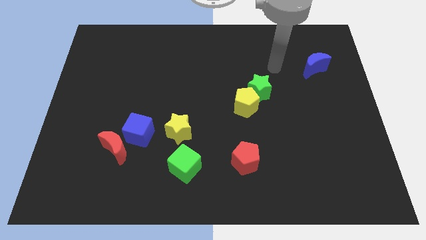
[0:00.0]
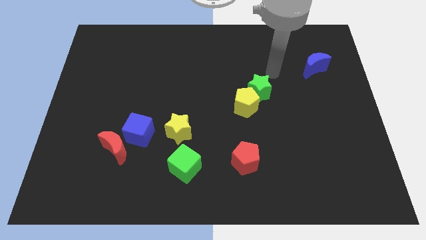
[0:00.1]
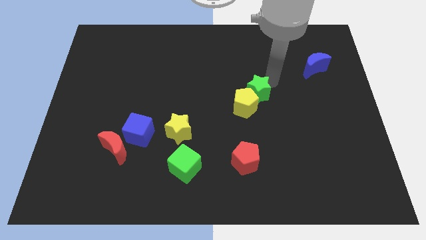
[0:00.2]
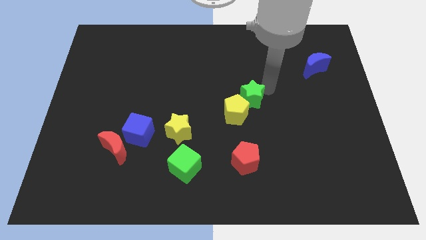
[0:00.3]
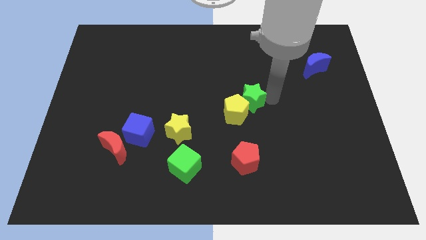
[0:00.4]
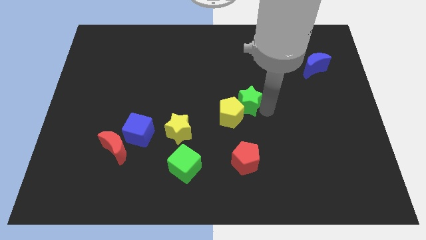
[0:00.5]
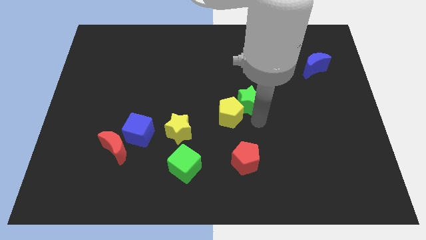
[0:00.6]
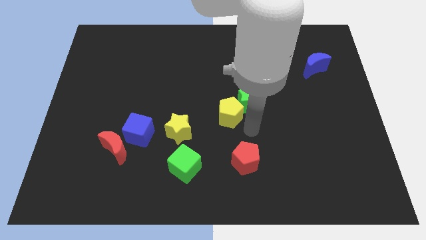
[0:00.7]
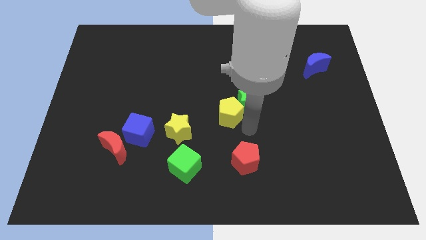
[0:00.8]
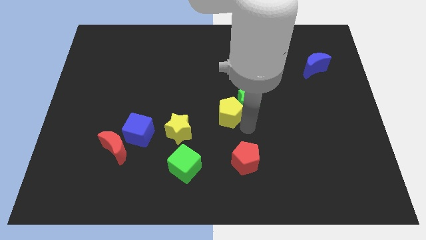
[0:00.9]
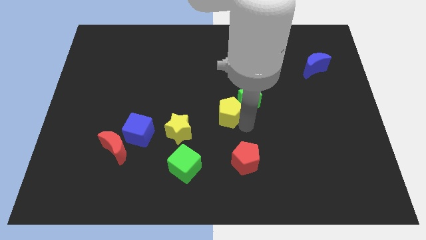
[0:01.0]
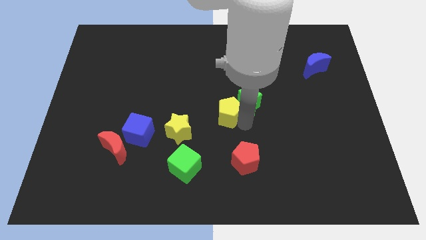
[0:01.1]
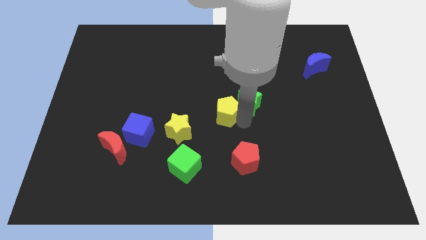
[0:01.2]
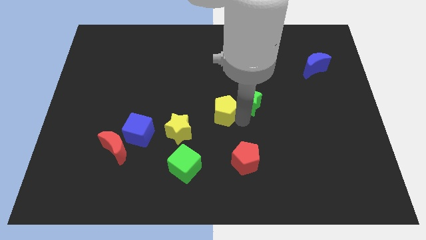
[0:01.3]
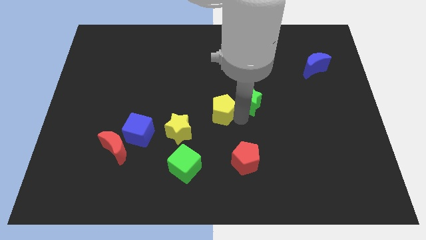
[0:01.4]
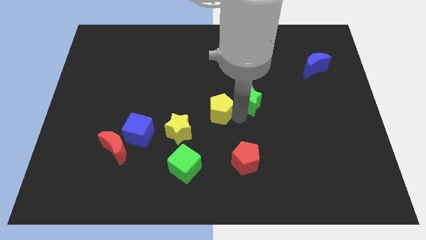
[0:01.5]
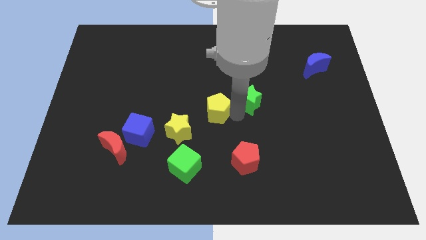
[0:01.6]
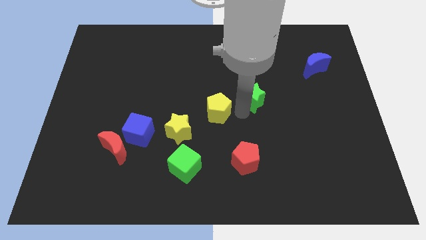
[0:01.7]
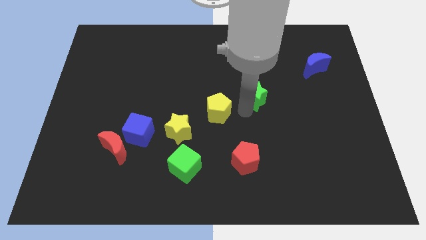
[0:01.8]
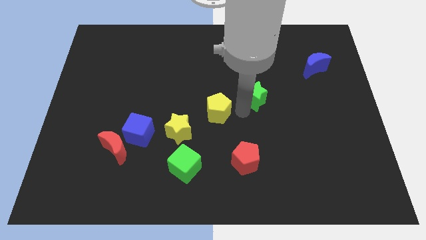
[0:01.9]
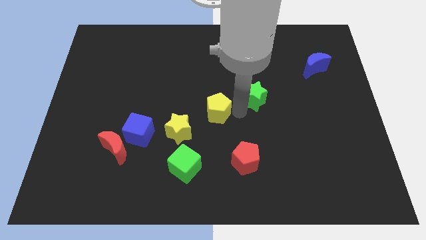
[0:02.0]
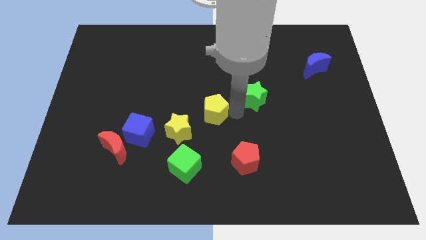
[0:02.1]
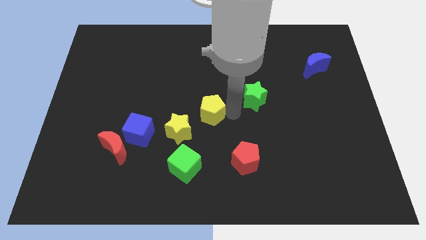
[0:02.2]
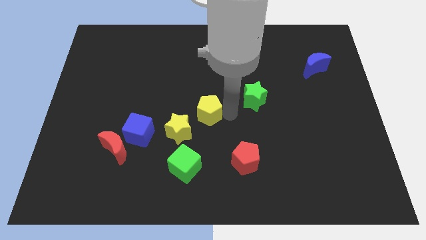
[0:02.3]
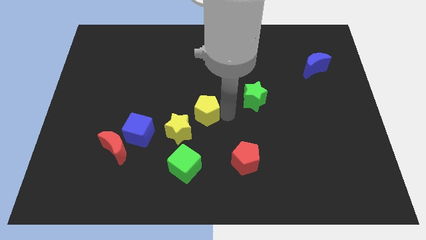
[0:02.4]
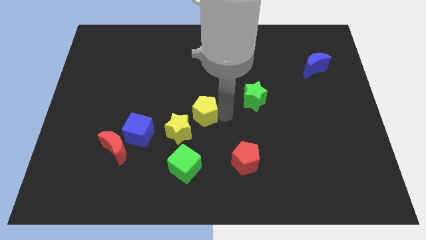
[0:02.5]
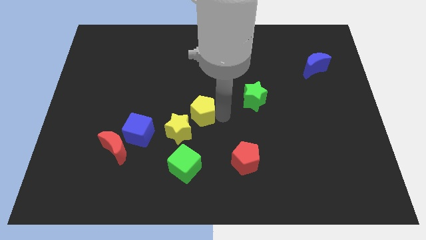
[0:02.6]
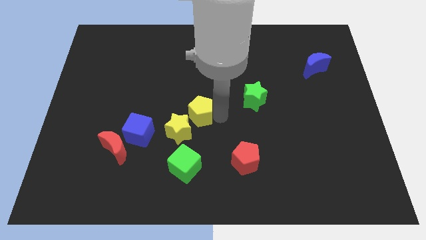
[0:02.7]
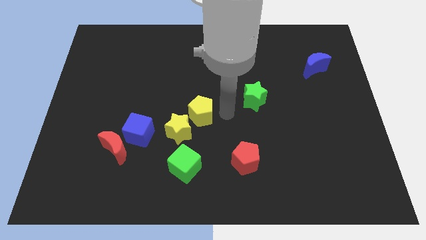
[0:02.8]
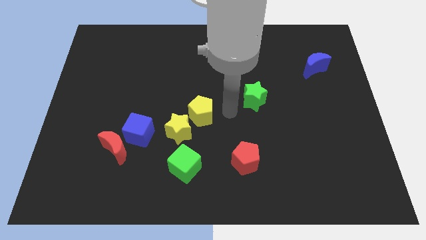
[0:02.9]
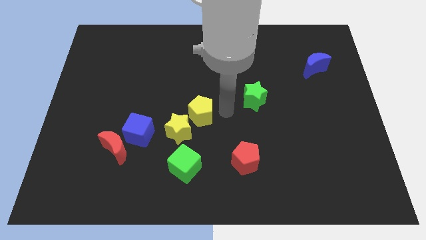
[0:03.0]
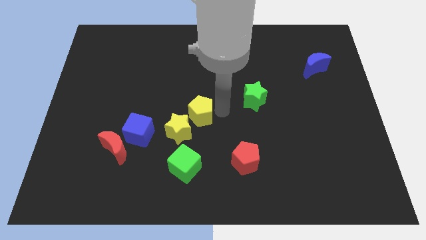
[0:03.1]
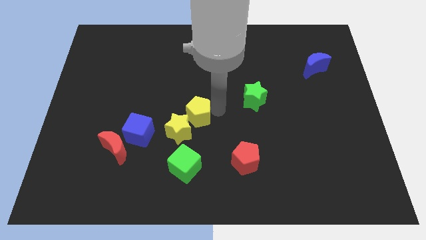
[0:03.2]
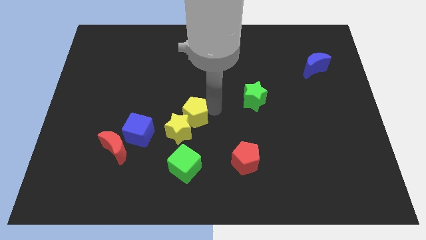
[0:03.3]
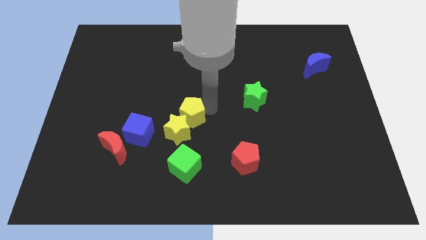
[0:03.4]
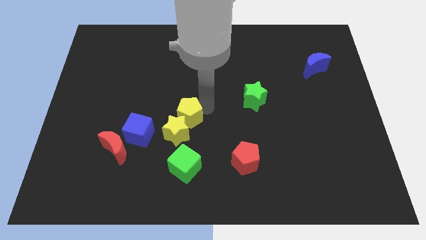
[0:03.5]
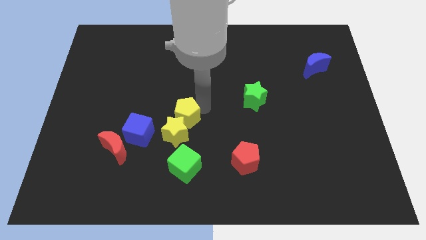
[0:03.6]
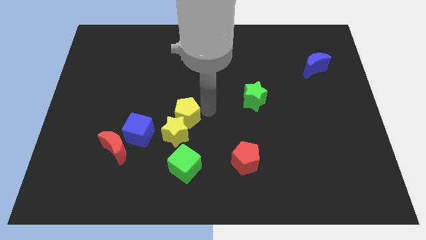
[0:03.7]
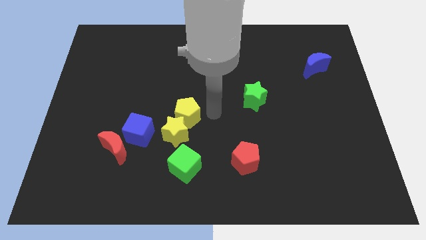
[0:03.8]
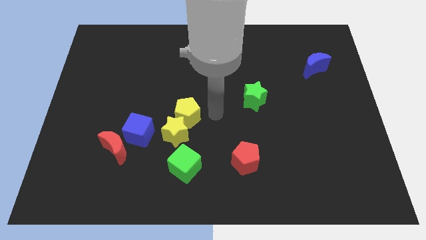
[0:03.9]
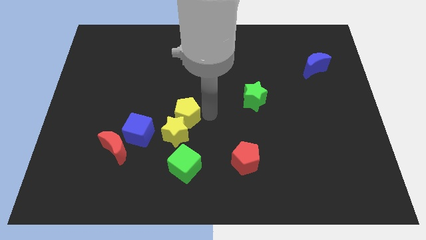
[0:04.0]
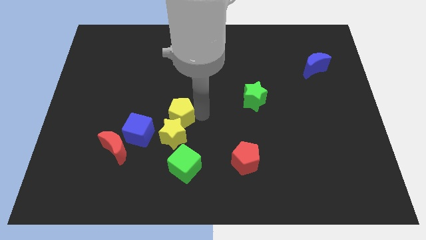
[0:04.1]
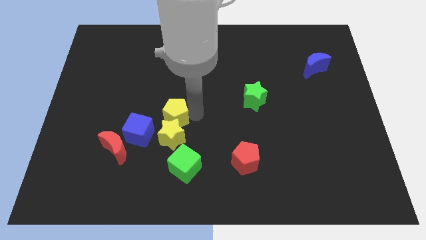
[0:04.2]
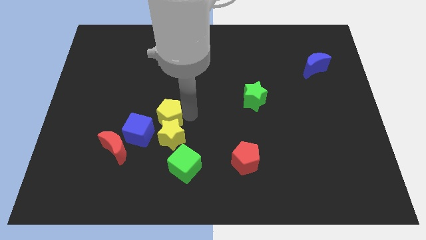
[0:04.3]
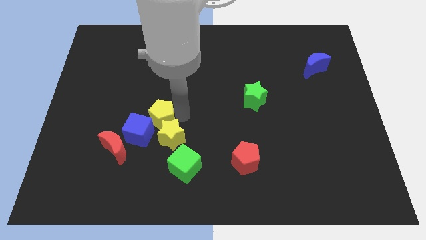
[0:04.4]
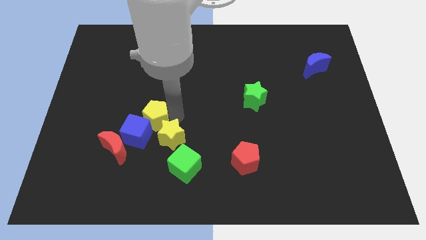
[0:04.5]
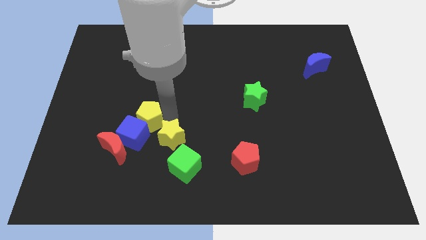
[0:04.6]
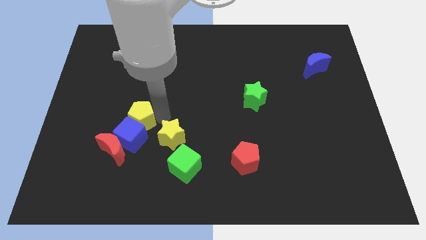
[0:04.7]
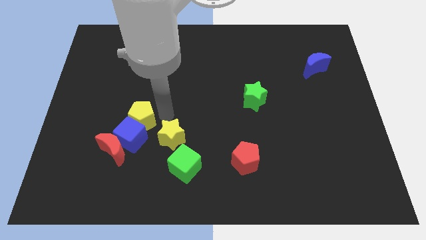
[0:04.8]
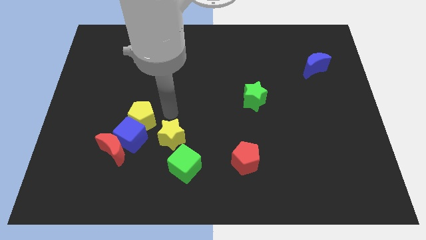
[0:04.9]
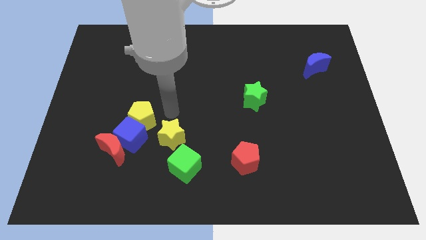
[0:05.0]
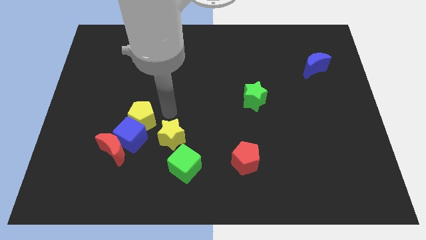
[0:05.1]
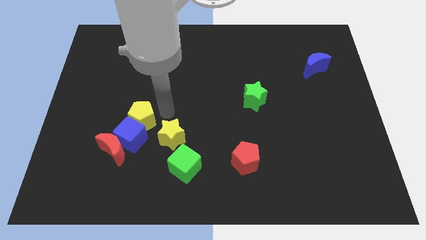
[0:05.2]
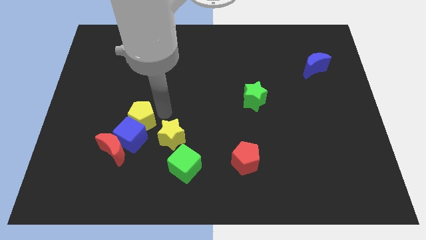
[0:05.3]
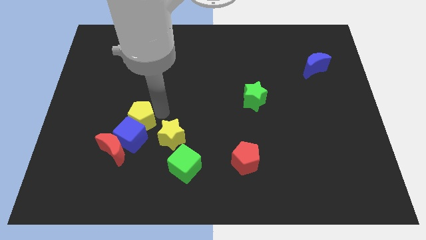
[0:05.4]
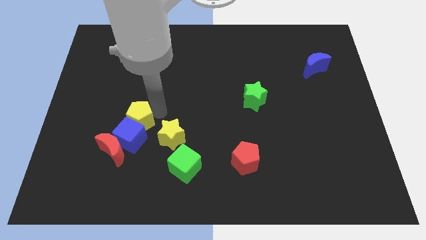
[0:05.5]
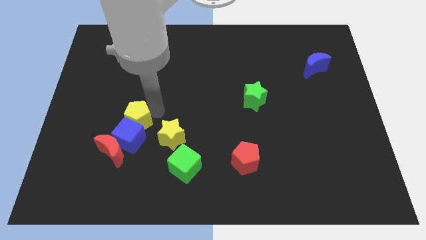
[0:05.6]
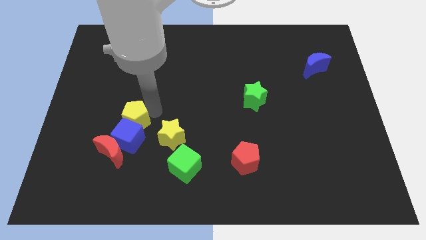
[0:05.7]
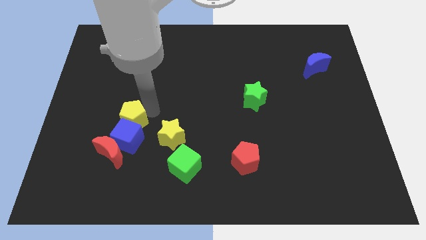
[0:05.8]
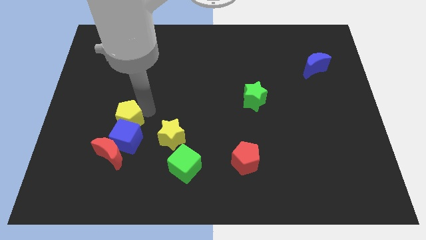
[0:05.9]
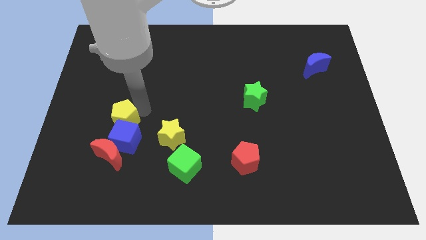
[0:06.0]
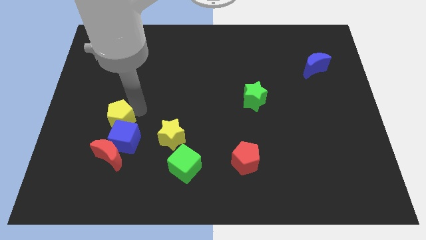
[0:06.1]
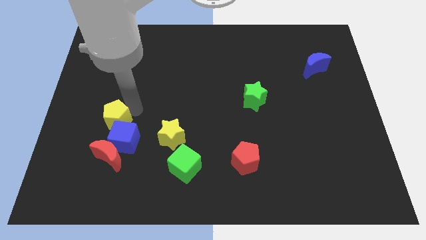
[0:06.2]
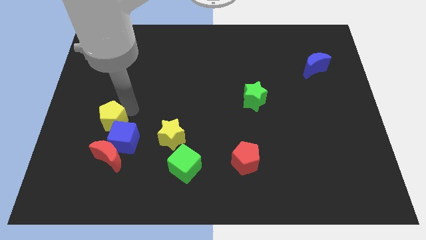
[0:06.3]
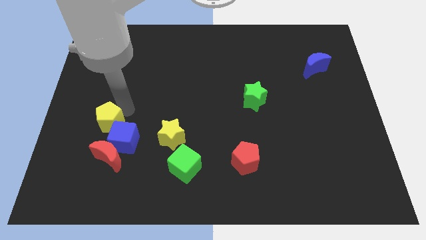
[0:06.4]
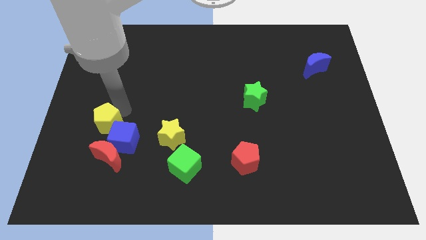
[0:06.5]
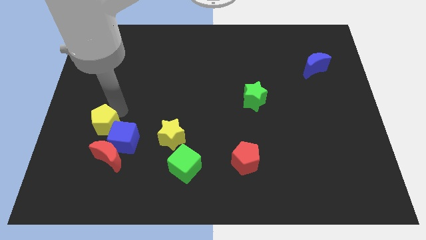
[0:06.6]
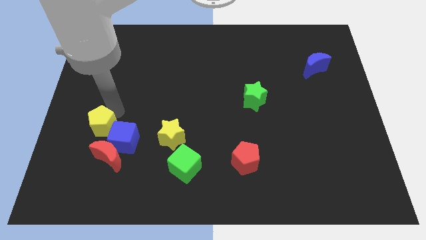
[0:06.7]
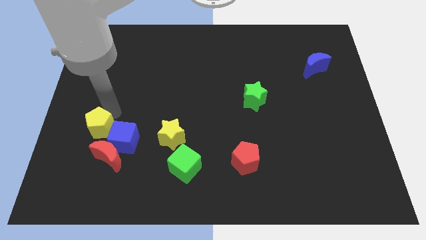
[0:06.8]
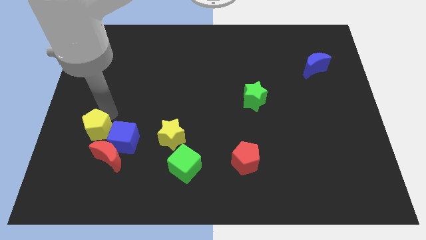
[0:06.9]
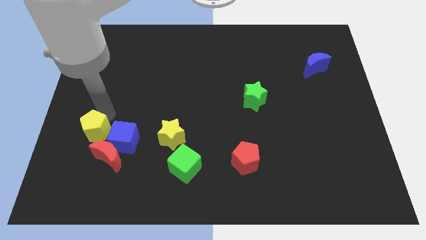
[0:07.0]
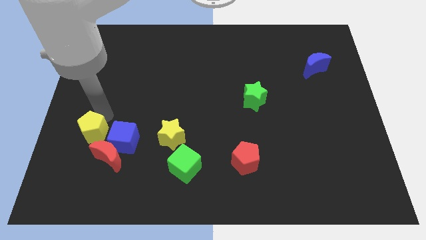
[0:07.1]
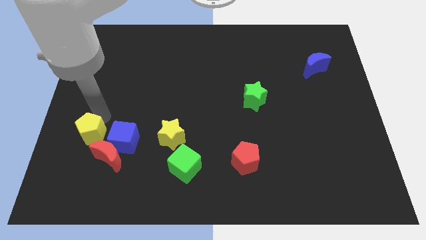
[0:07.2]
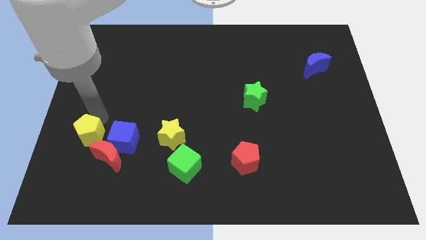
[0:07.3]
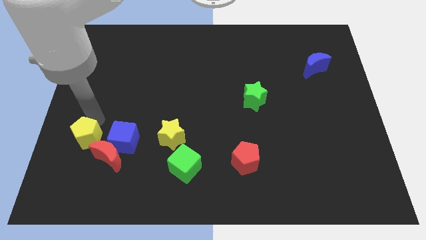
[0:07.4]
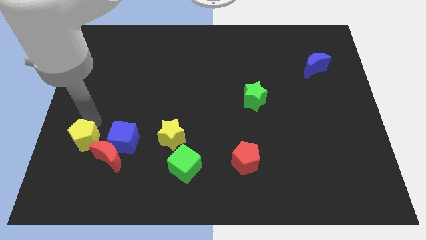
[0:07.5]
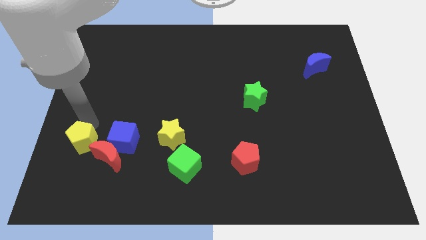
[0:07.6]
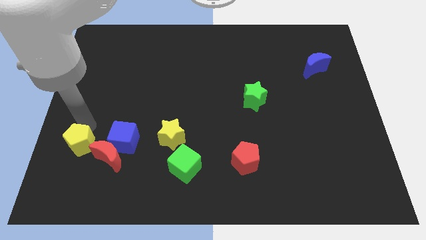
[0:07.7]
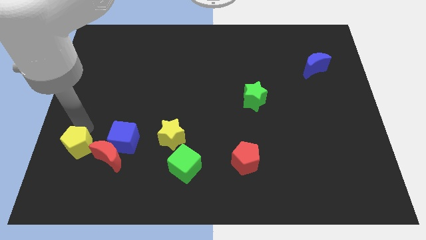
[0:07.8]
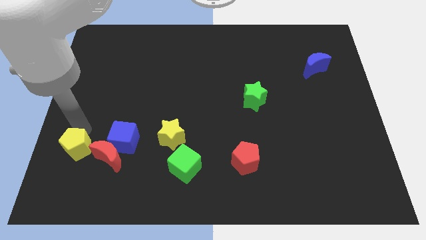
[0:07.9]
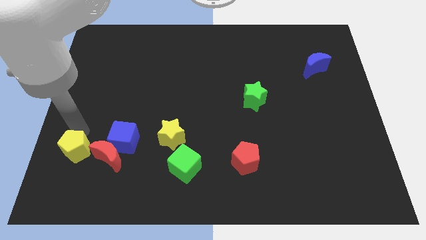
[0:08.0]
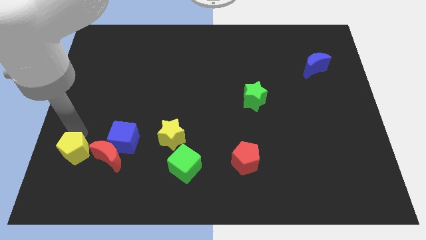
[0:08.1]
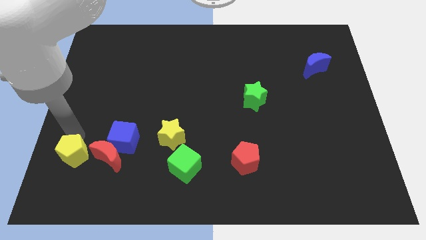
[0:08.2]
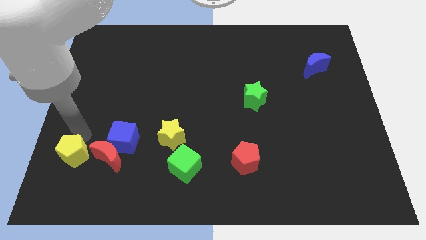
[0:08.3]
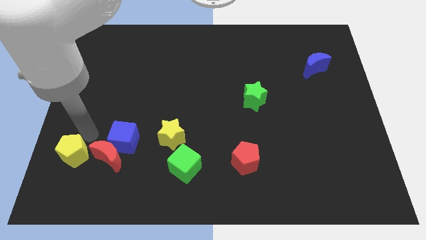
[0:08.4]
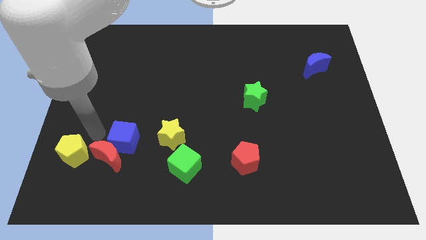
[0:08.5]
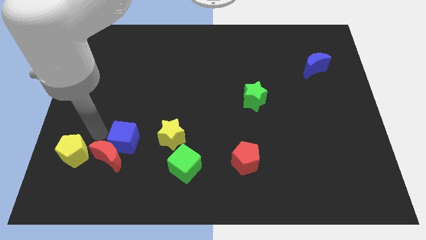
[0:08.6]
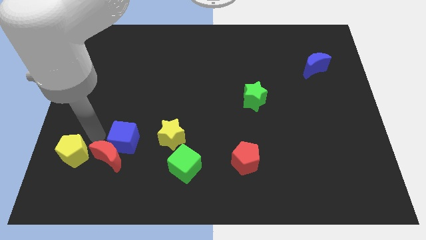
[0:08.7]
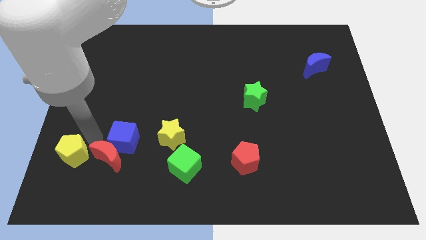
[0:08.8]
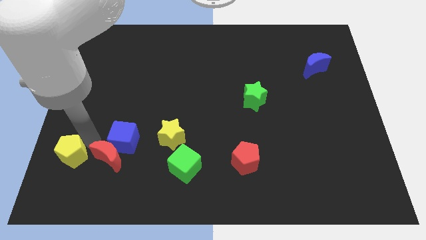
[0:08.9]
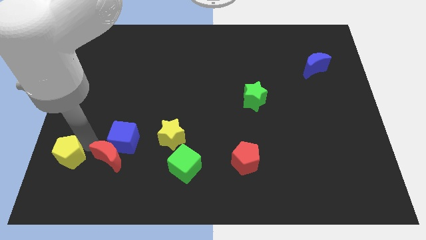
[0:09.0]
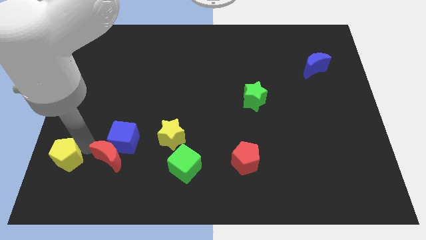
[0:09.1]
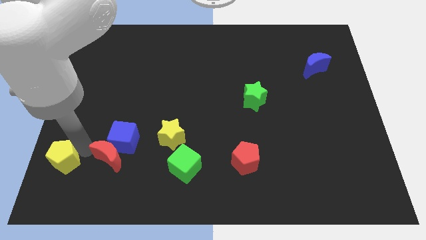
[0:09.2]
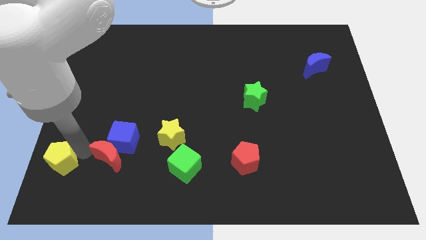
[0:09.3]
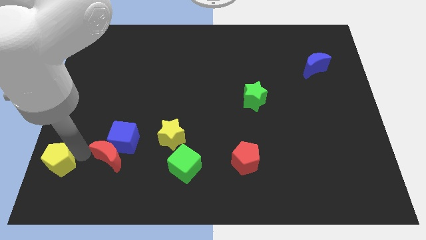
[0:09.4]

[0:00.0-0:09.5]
slide the yellow pentagon to the lower left corner
